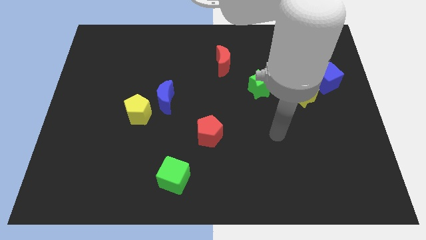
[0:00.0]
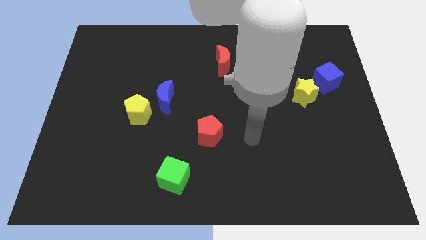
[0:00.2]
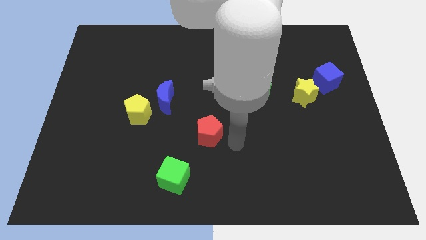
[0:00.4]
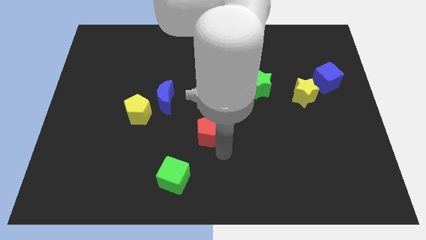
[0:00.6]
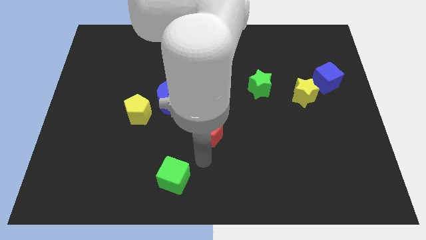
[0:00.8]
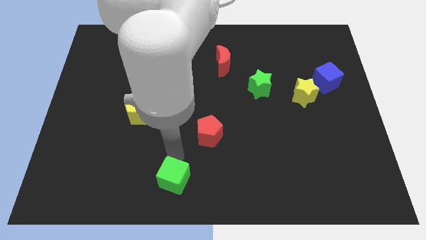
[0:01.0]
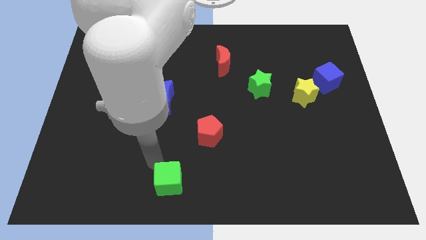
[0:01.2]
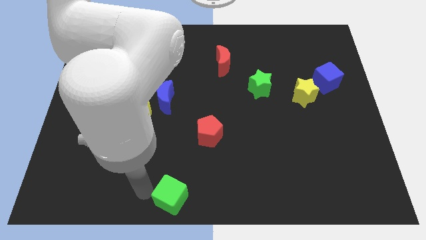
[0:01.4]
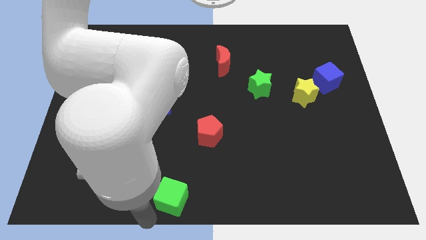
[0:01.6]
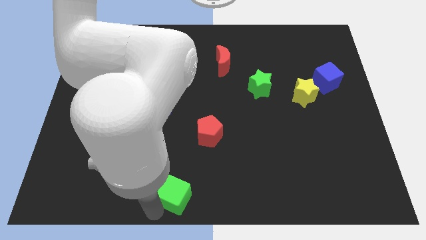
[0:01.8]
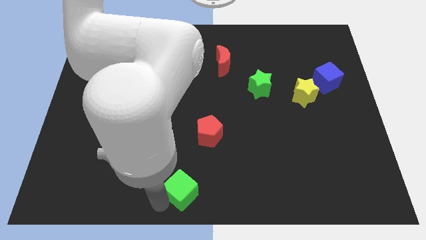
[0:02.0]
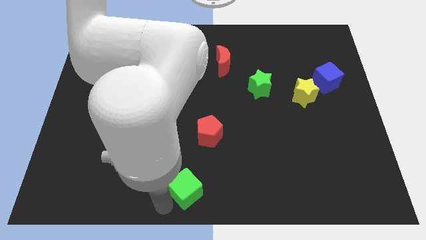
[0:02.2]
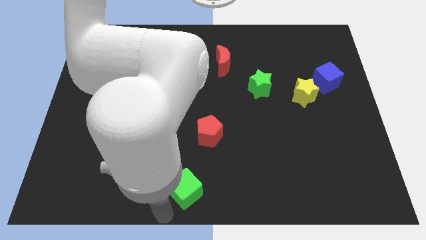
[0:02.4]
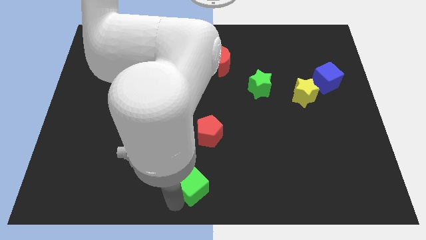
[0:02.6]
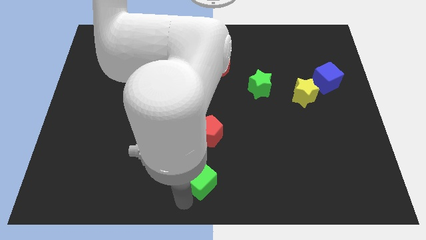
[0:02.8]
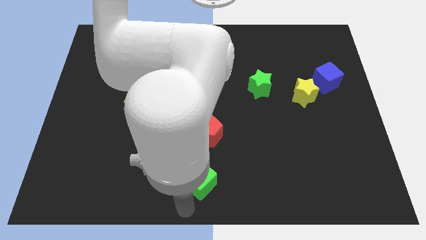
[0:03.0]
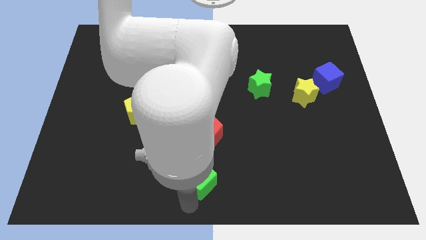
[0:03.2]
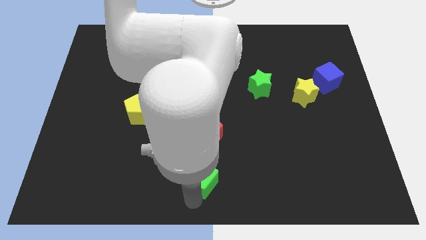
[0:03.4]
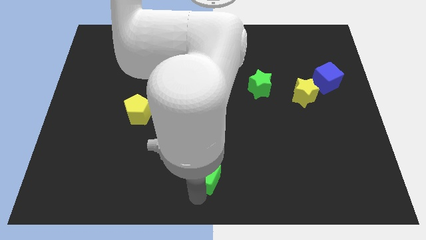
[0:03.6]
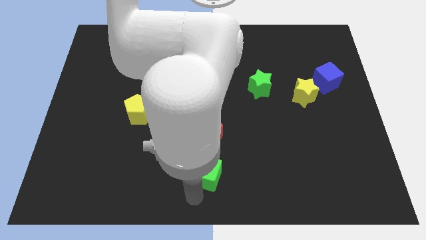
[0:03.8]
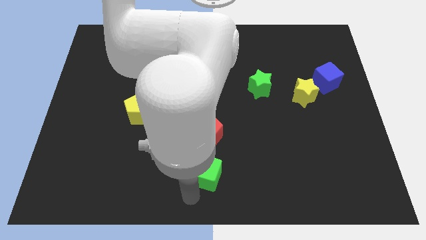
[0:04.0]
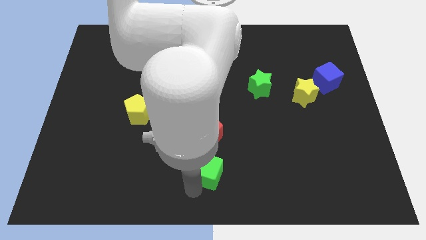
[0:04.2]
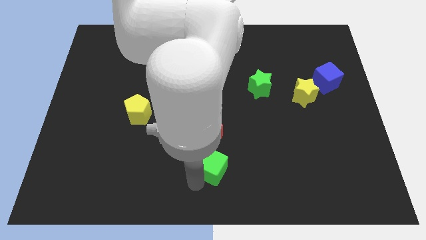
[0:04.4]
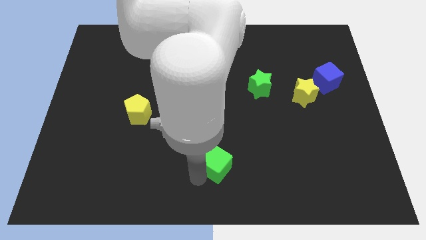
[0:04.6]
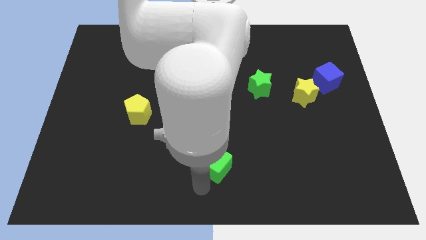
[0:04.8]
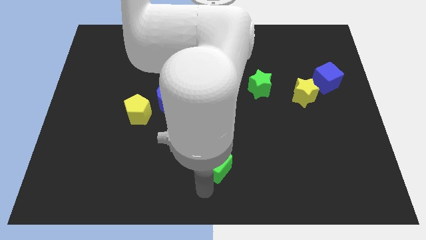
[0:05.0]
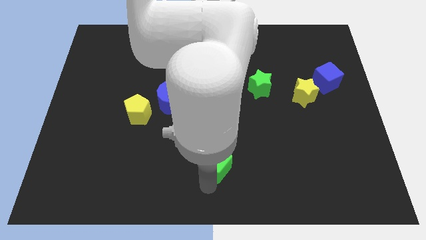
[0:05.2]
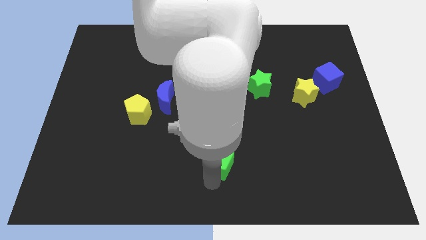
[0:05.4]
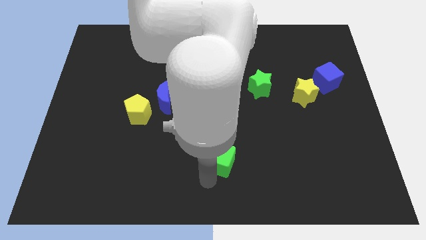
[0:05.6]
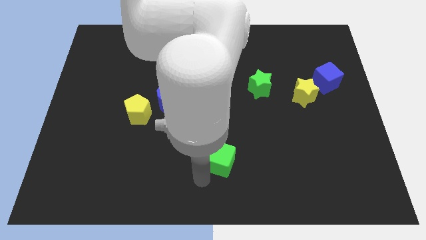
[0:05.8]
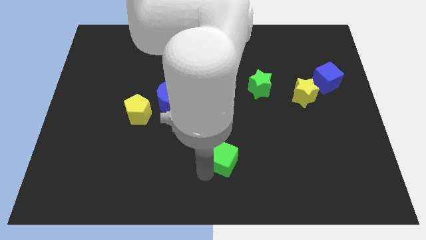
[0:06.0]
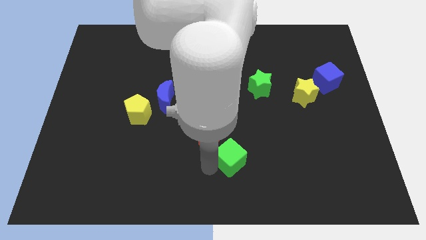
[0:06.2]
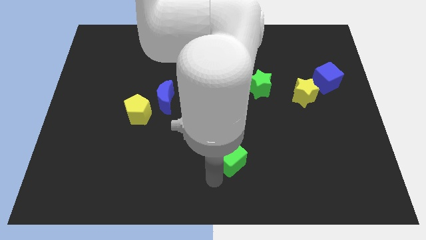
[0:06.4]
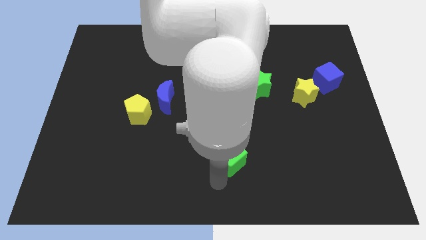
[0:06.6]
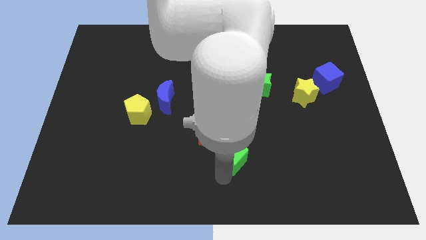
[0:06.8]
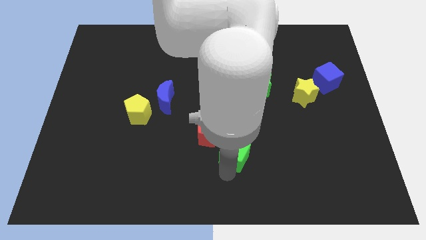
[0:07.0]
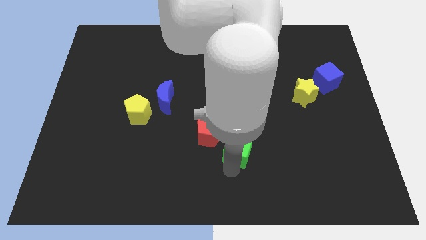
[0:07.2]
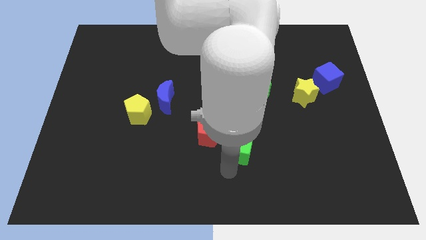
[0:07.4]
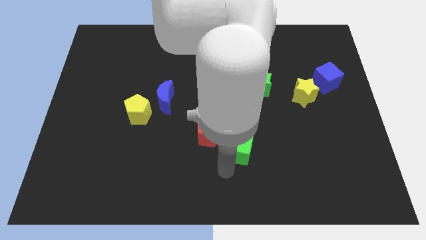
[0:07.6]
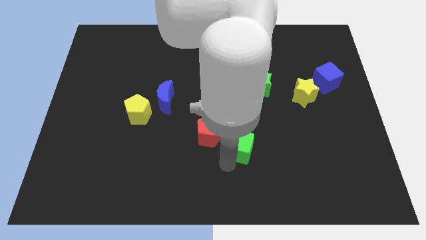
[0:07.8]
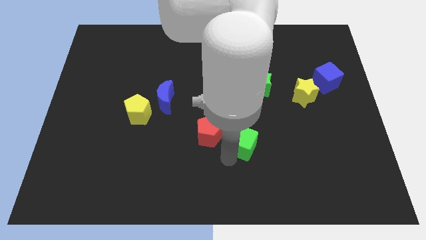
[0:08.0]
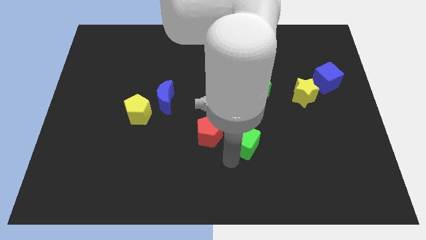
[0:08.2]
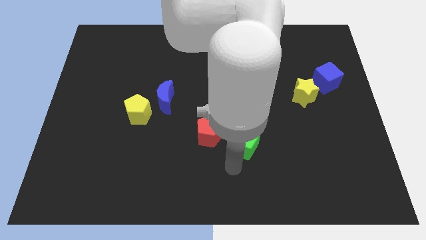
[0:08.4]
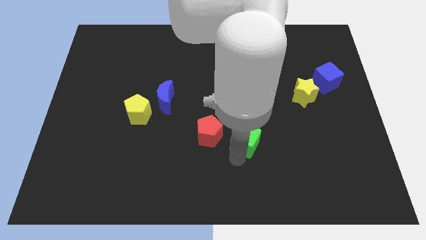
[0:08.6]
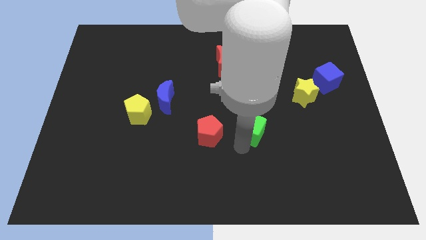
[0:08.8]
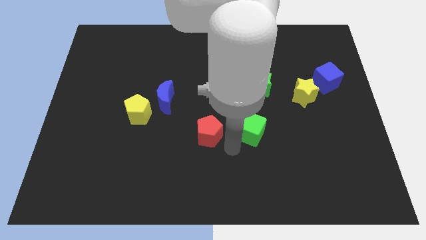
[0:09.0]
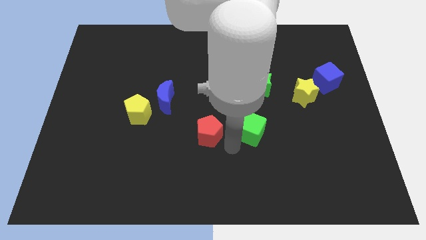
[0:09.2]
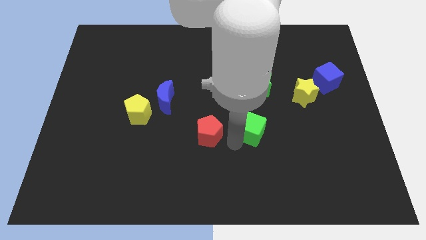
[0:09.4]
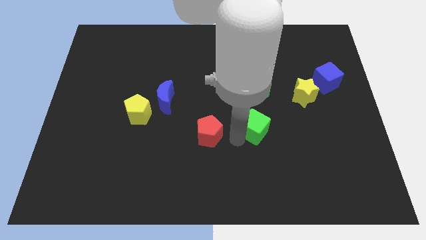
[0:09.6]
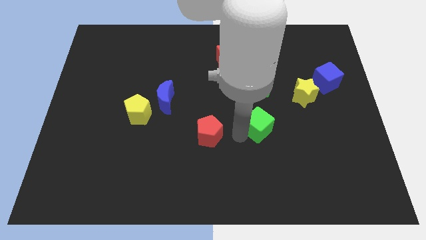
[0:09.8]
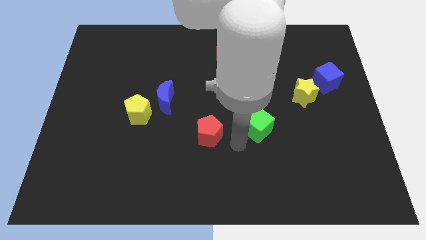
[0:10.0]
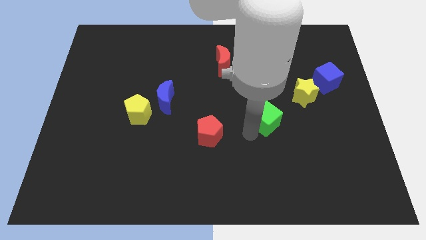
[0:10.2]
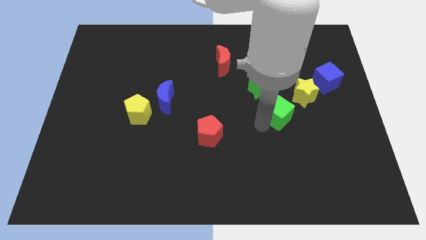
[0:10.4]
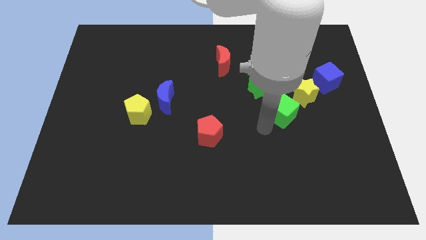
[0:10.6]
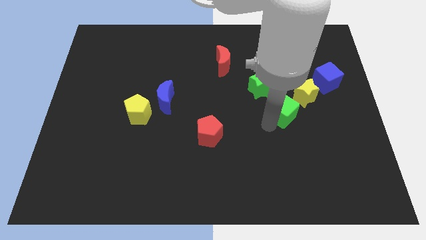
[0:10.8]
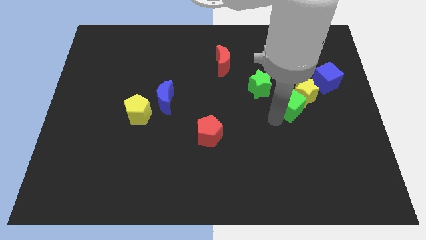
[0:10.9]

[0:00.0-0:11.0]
move the green cube to the yellow star
